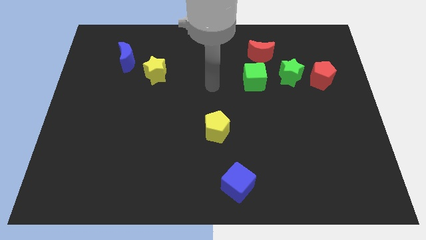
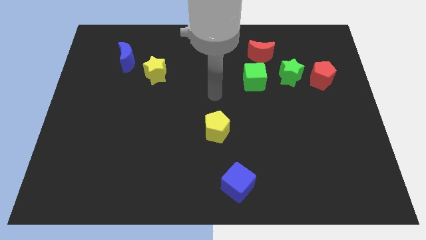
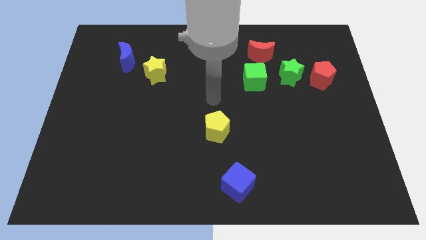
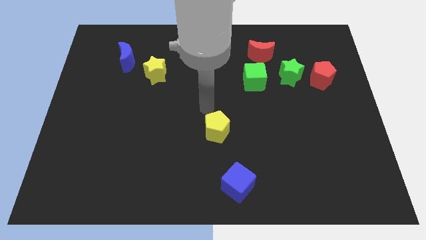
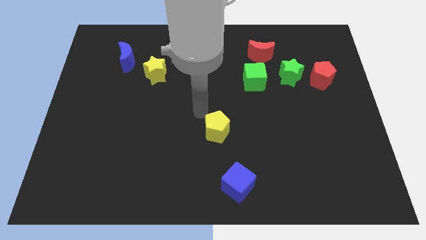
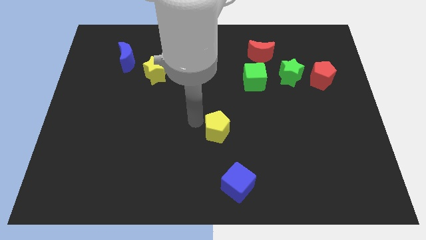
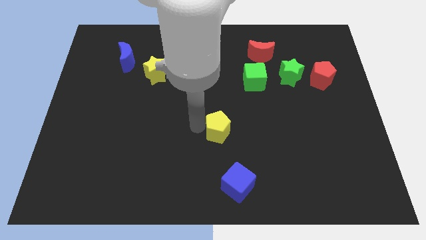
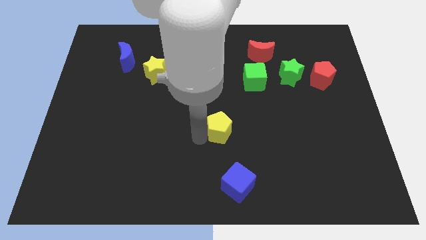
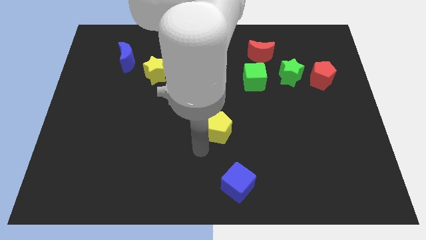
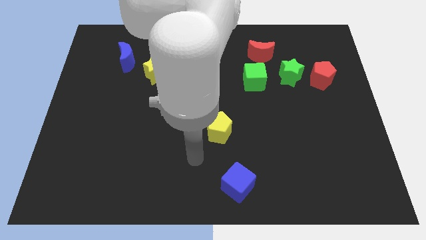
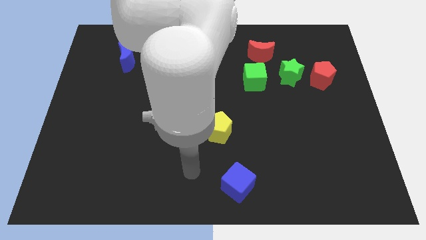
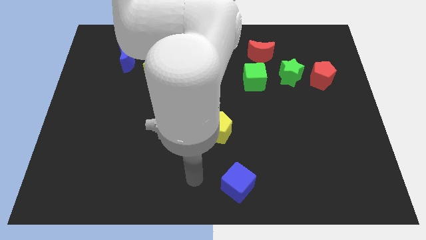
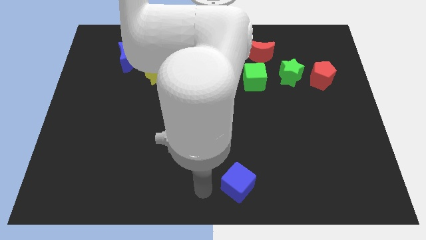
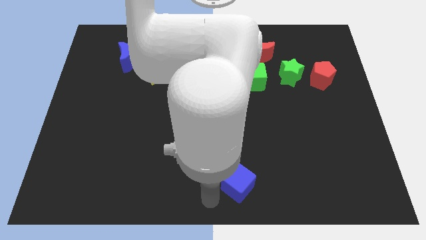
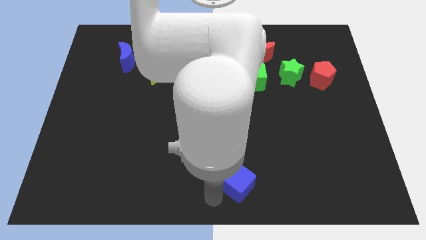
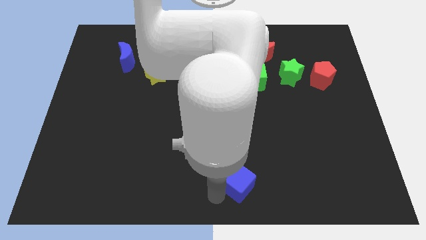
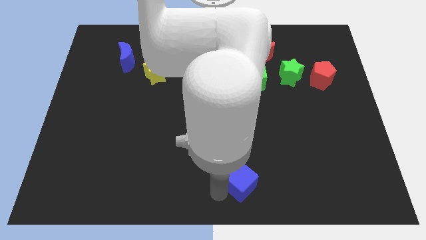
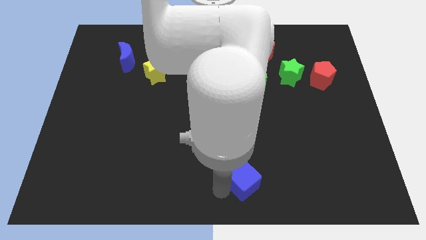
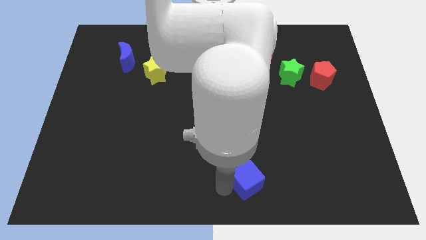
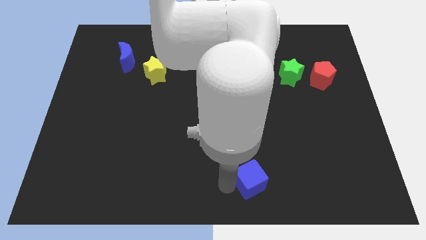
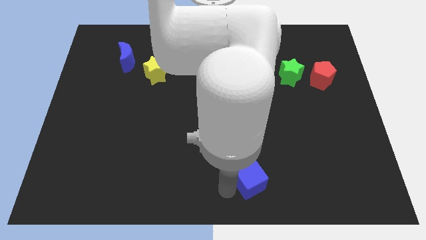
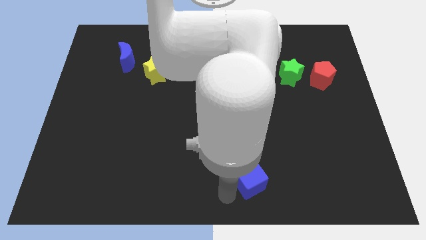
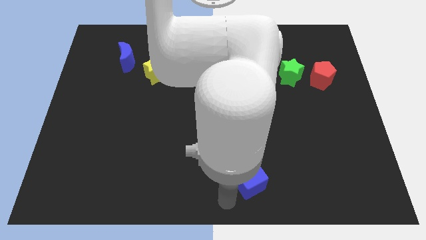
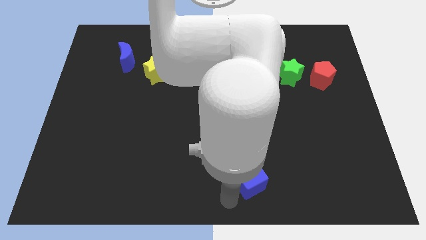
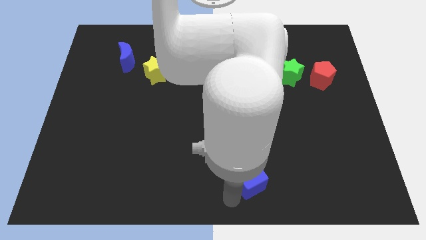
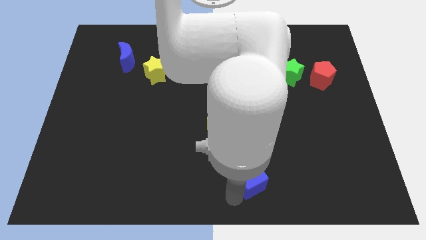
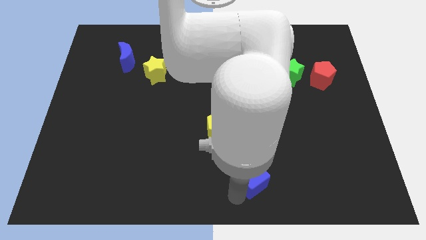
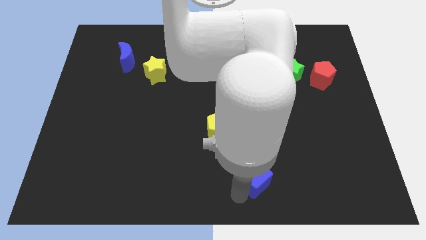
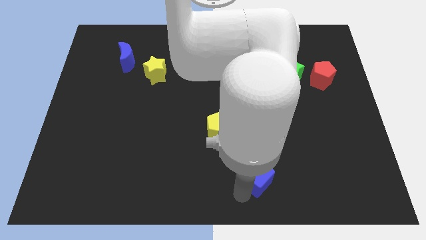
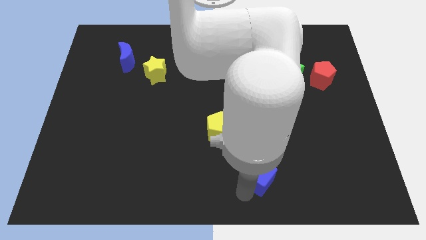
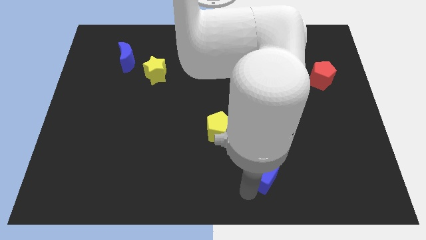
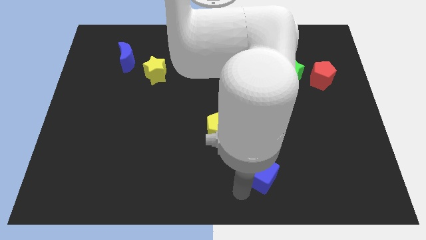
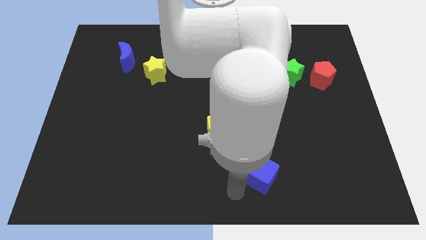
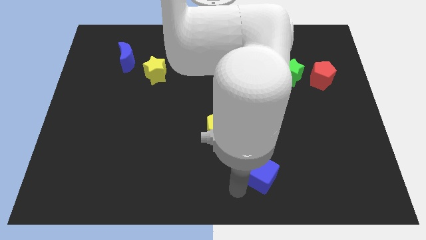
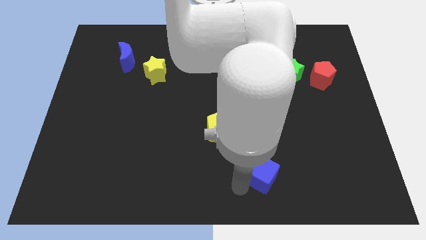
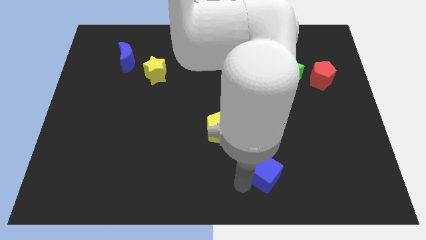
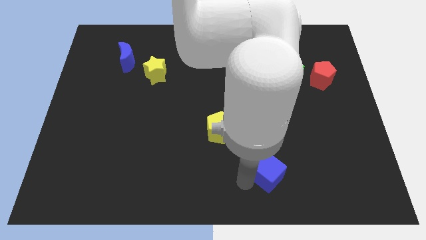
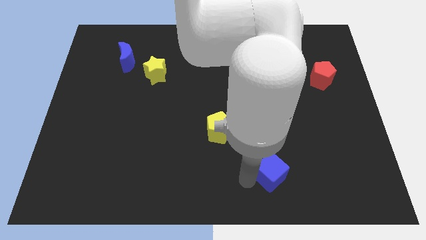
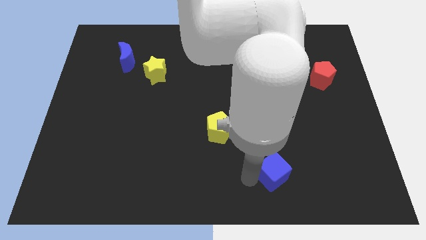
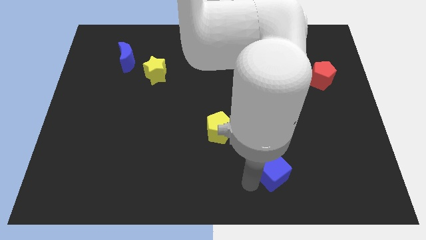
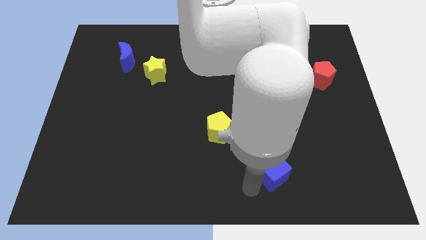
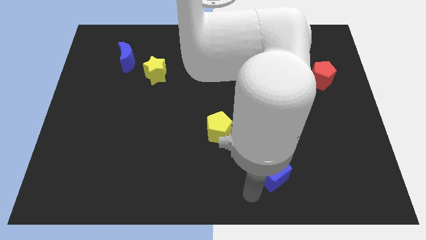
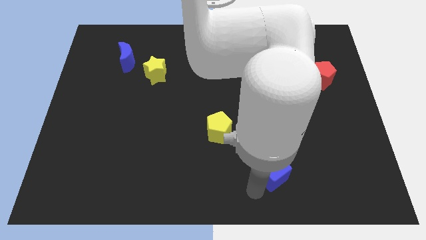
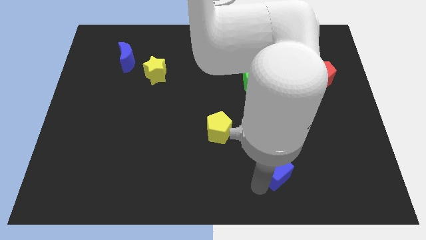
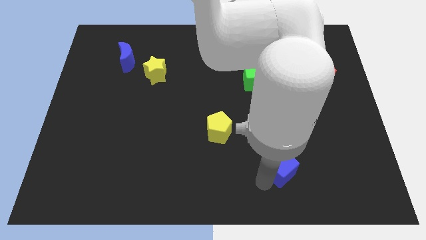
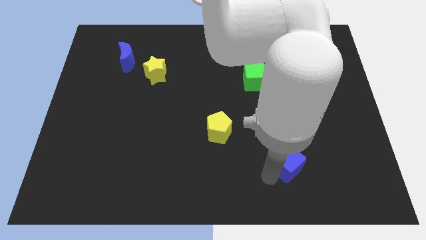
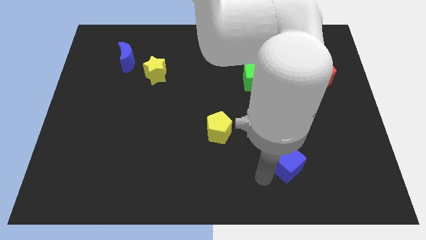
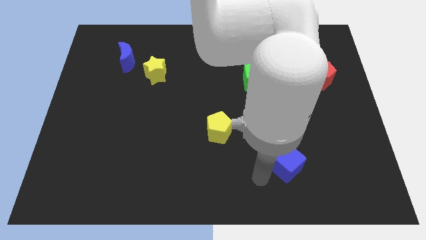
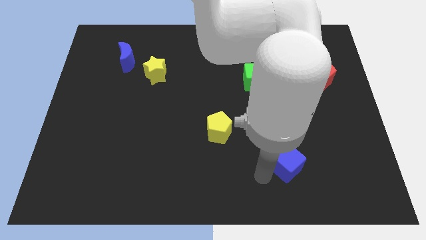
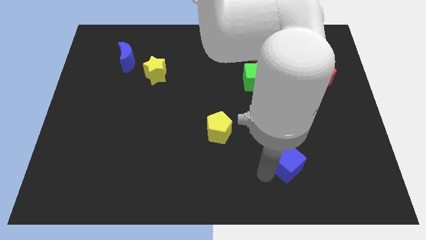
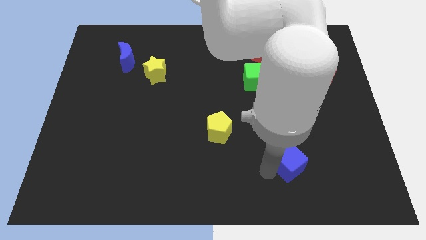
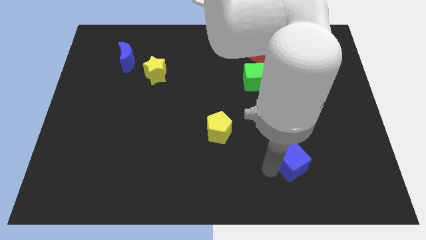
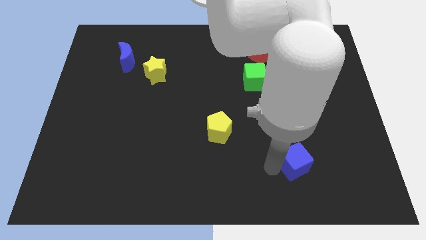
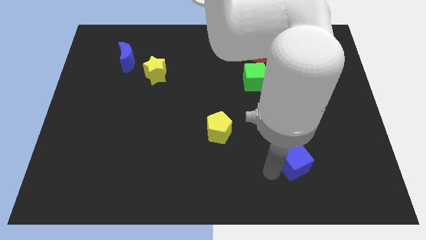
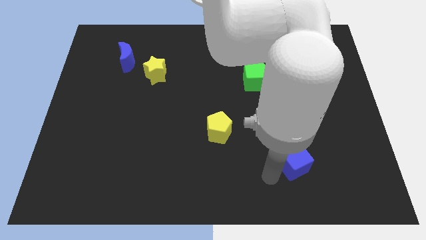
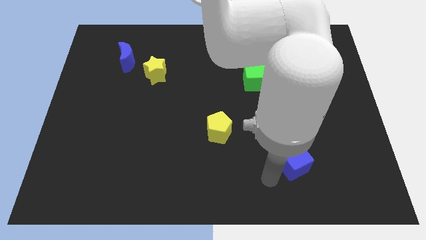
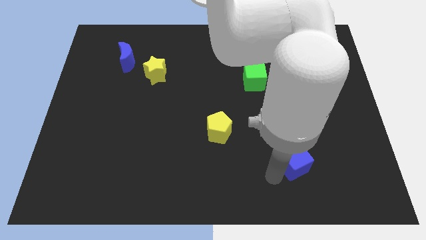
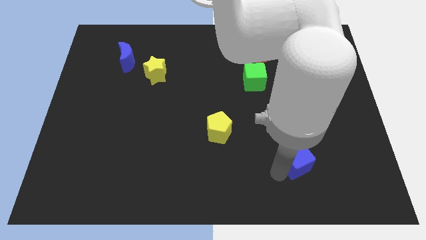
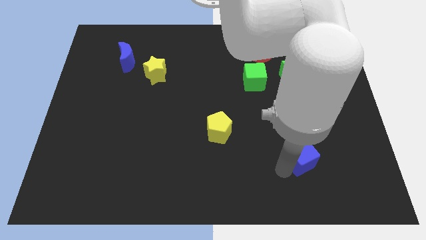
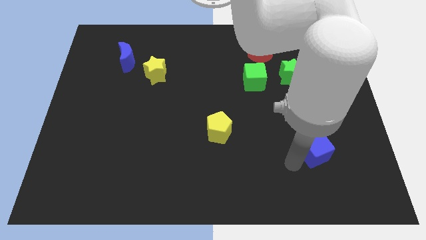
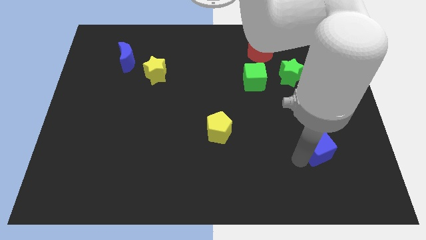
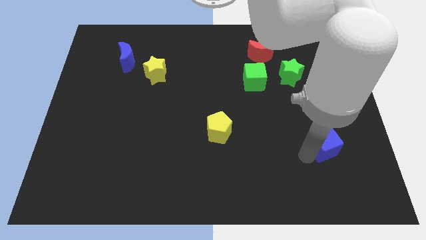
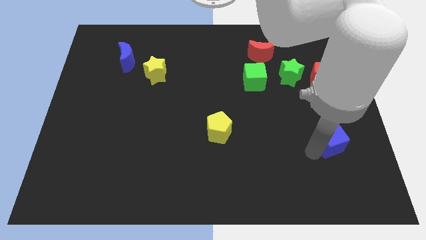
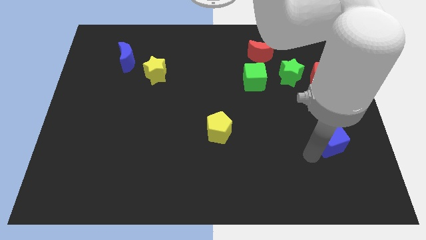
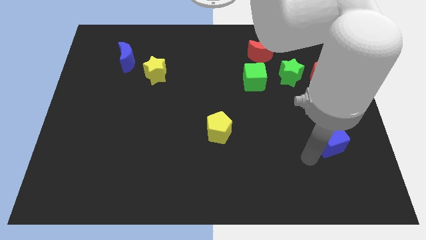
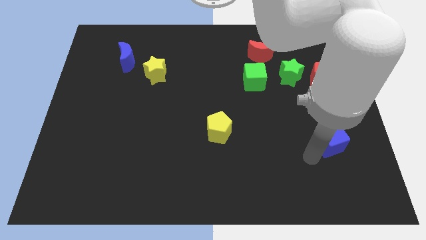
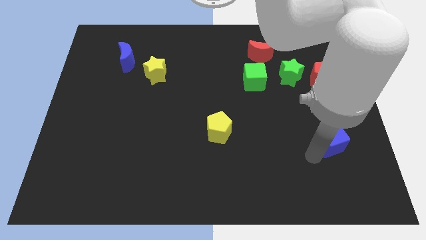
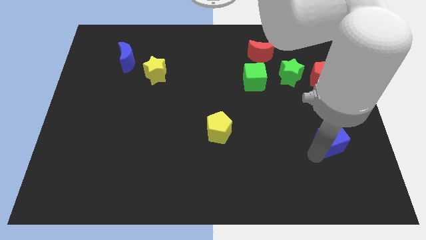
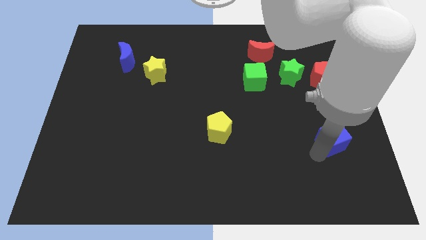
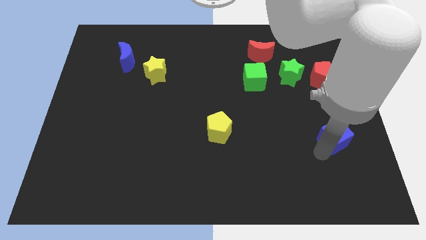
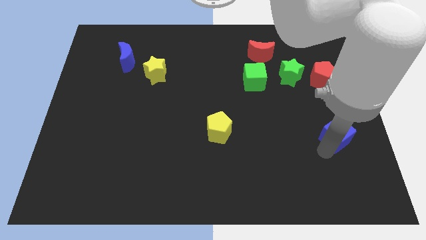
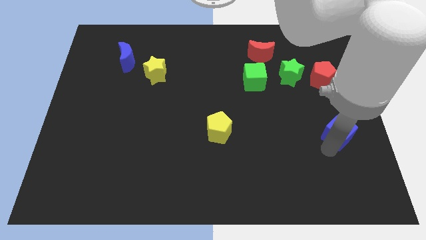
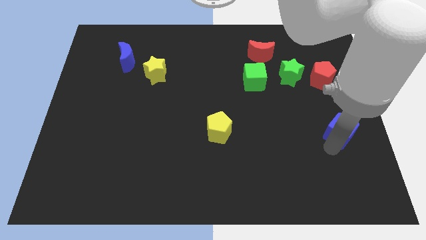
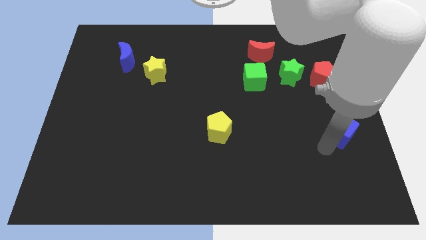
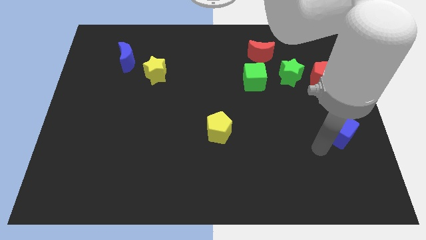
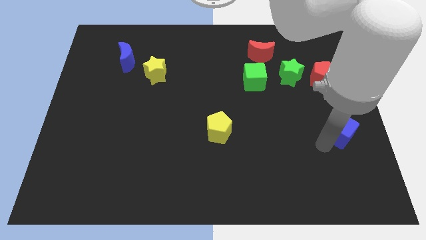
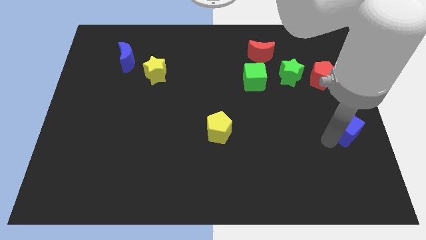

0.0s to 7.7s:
put the blue cube to the right side of the board
